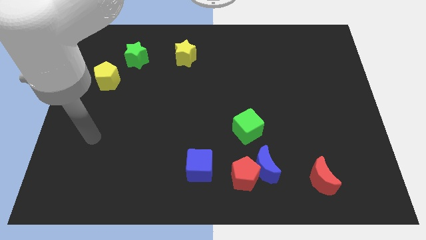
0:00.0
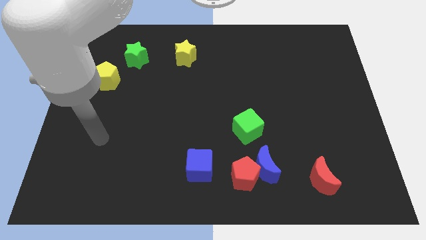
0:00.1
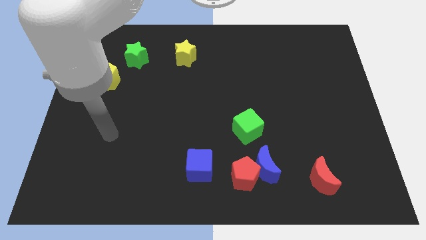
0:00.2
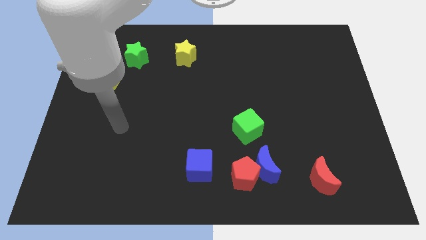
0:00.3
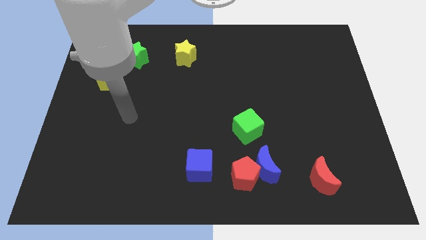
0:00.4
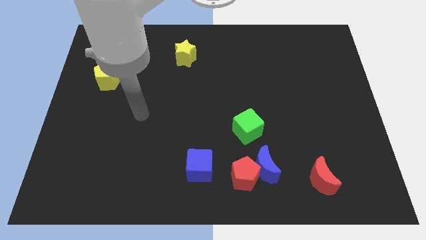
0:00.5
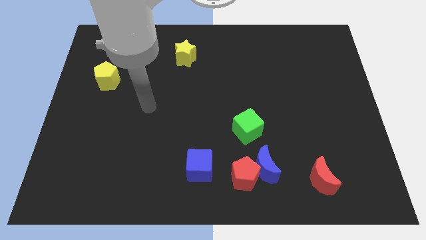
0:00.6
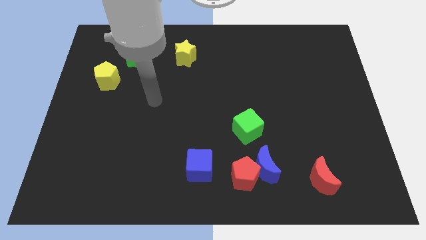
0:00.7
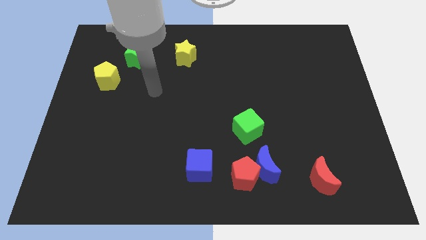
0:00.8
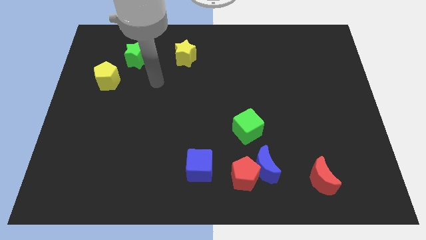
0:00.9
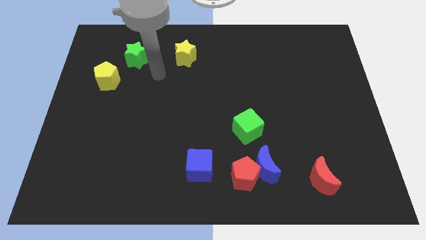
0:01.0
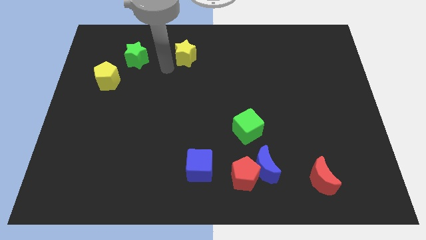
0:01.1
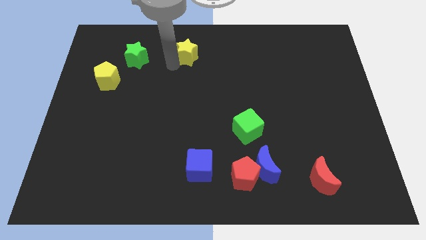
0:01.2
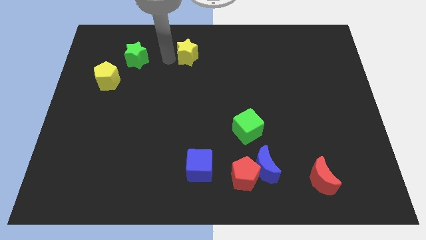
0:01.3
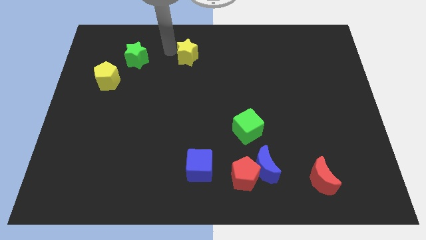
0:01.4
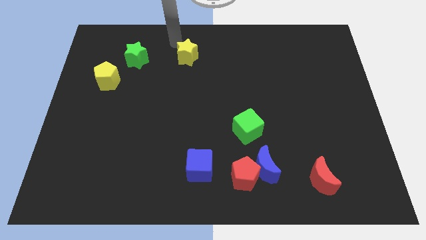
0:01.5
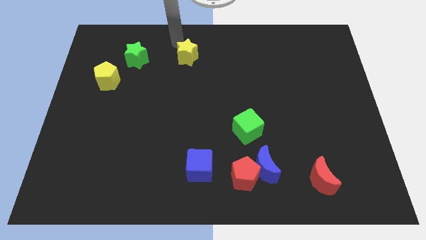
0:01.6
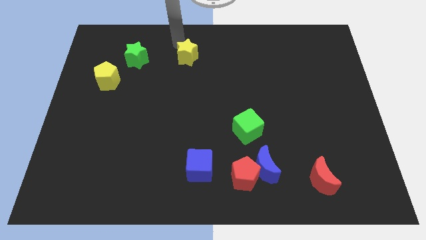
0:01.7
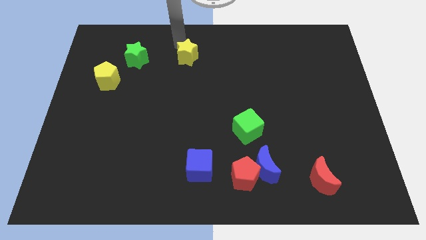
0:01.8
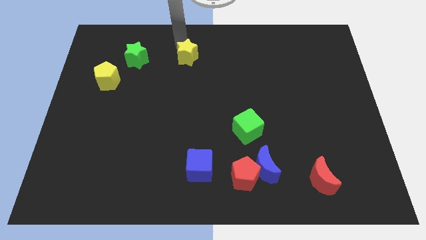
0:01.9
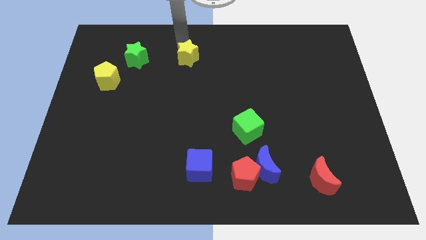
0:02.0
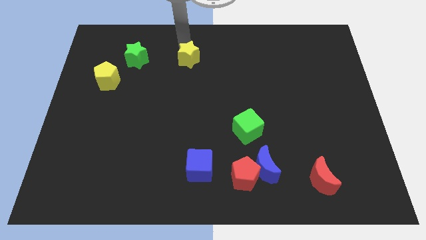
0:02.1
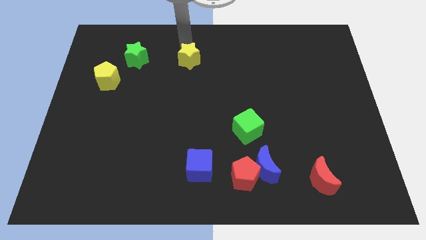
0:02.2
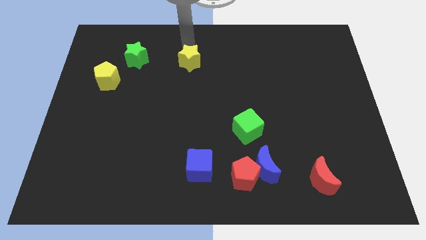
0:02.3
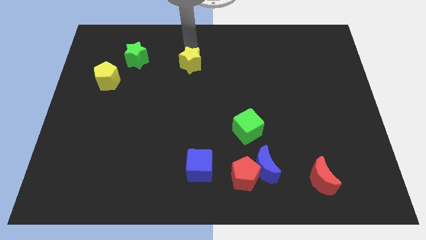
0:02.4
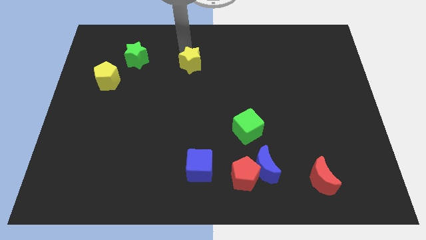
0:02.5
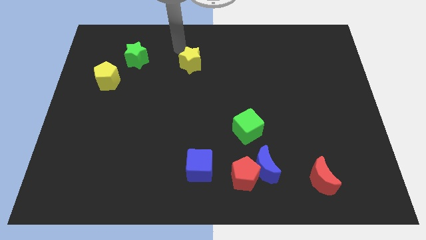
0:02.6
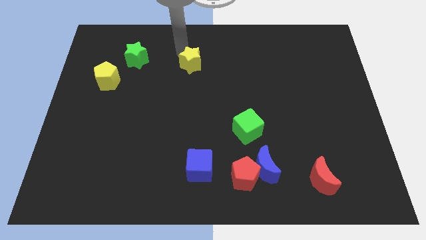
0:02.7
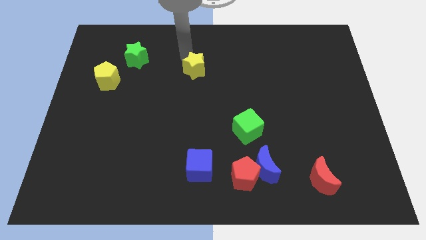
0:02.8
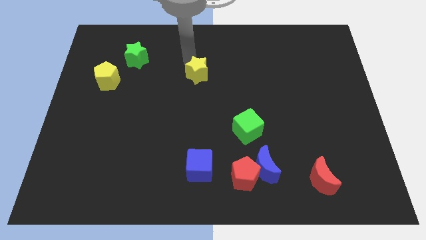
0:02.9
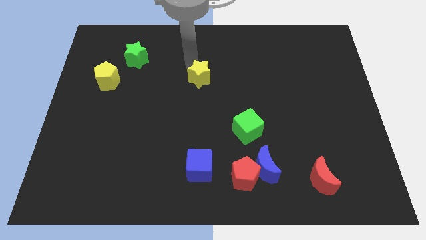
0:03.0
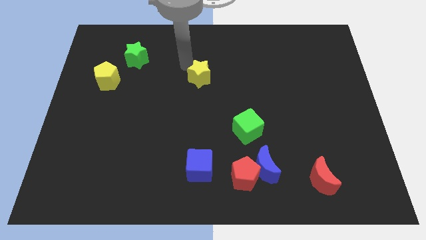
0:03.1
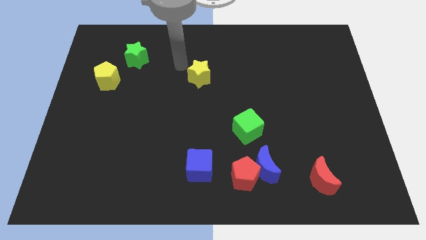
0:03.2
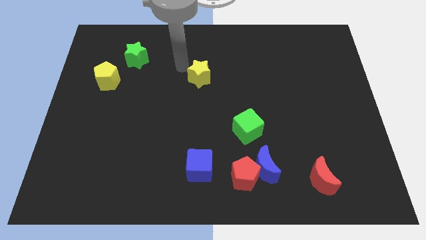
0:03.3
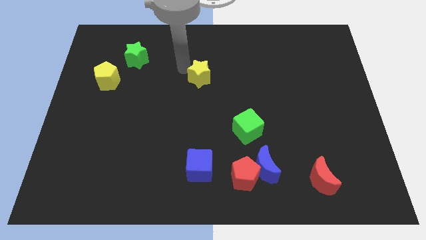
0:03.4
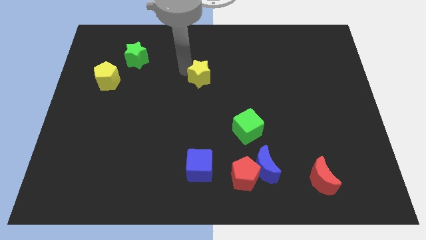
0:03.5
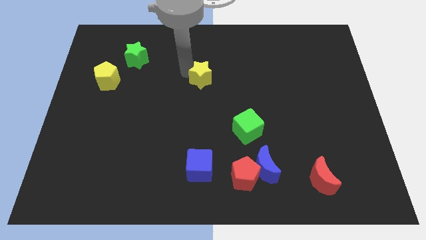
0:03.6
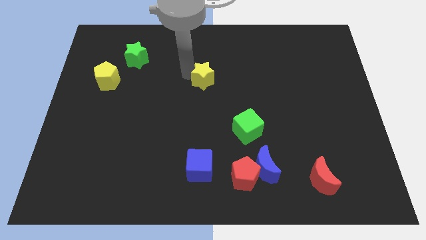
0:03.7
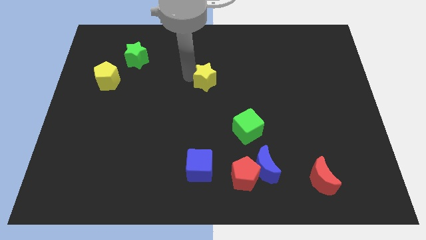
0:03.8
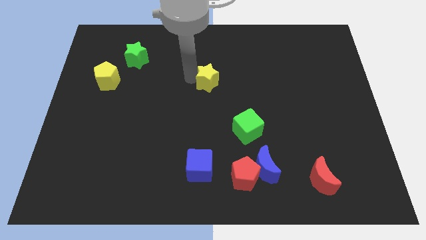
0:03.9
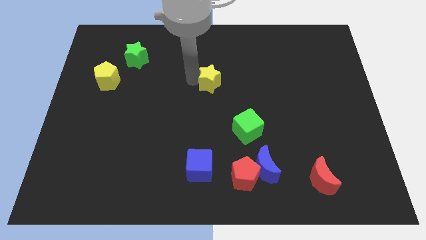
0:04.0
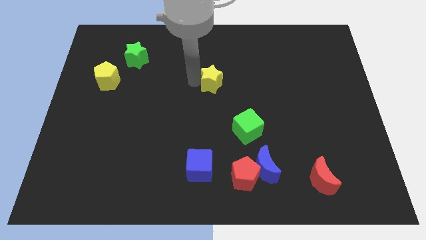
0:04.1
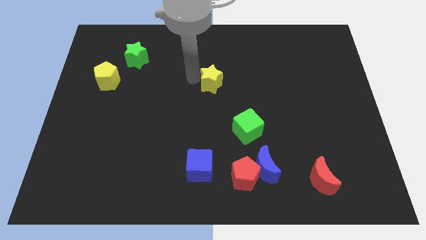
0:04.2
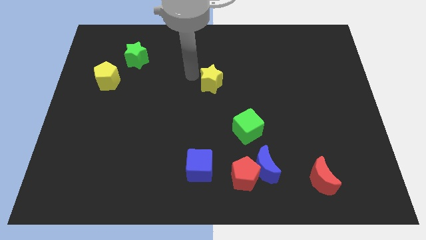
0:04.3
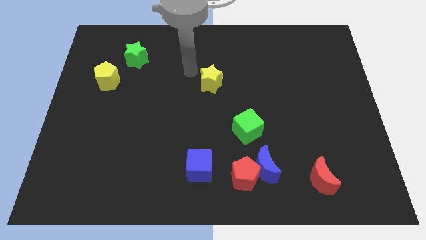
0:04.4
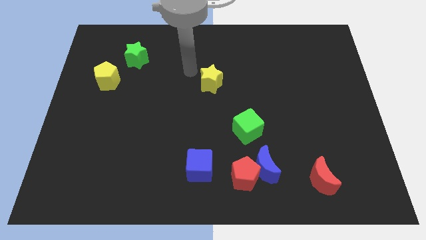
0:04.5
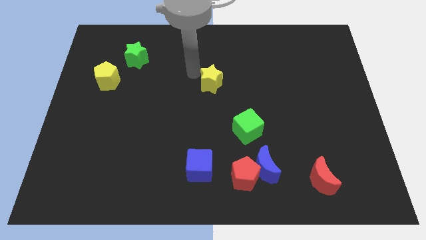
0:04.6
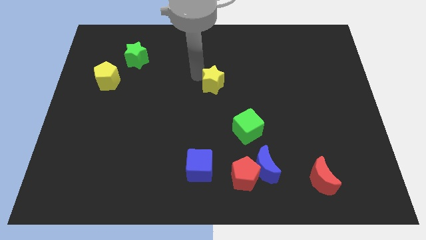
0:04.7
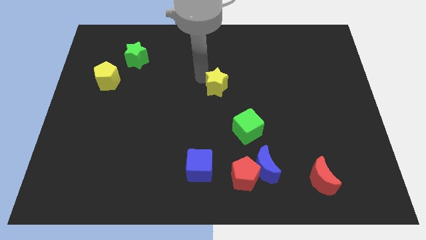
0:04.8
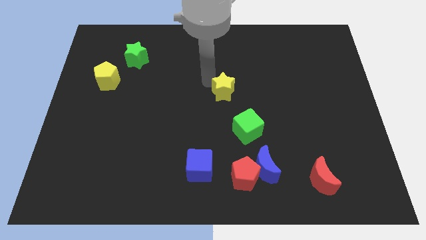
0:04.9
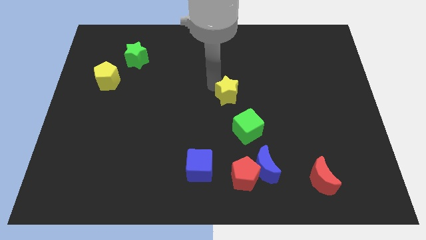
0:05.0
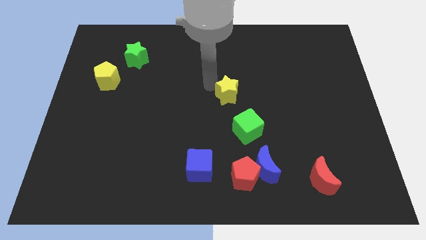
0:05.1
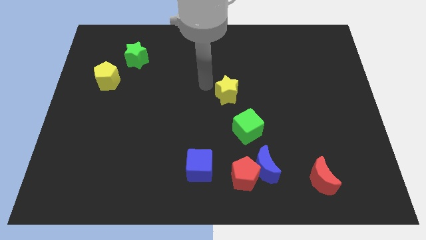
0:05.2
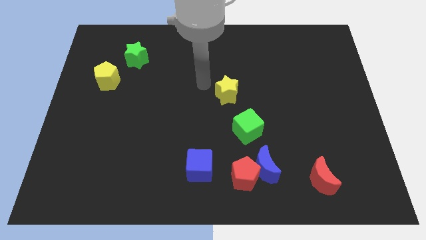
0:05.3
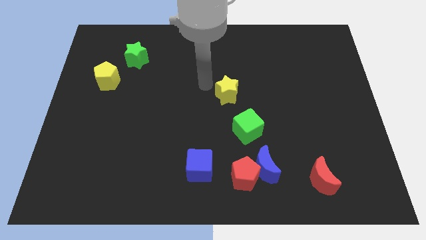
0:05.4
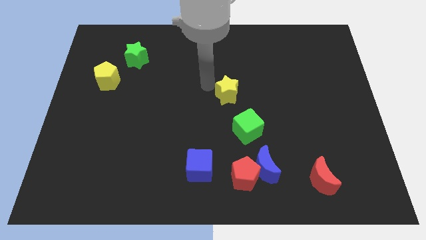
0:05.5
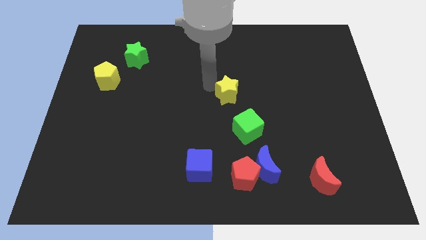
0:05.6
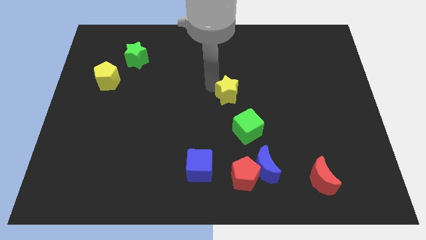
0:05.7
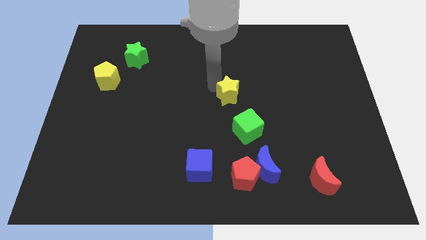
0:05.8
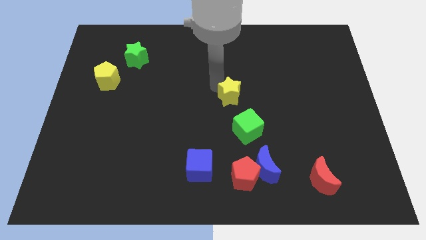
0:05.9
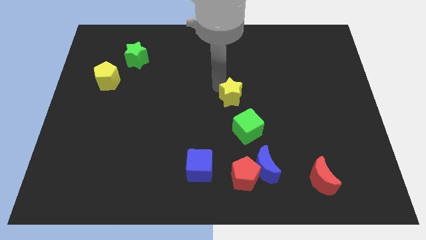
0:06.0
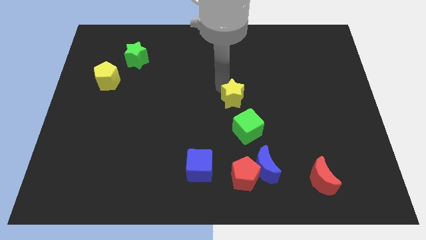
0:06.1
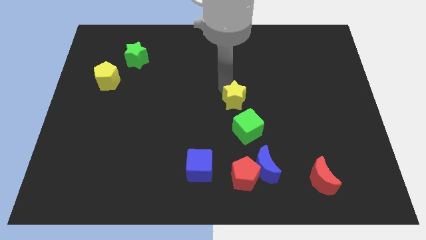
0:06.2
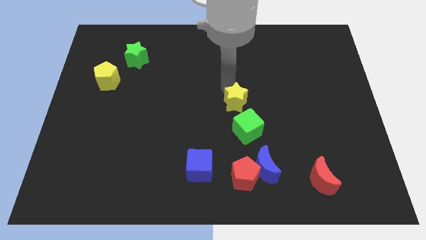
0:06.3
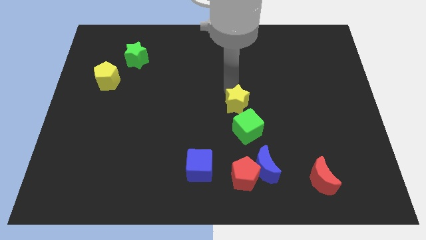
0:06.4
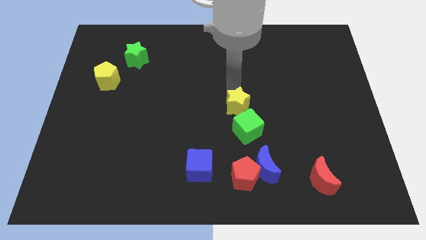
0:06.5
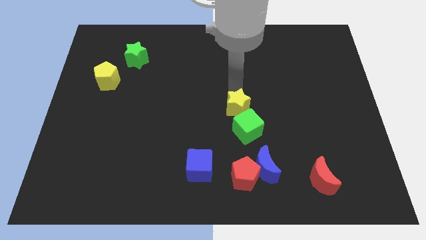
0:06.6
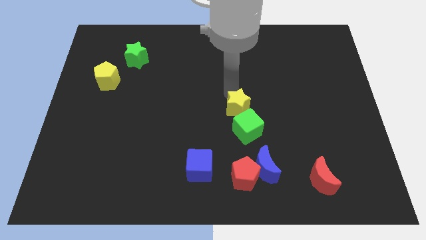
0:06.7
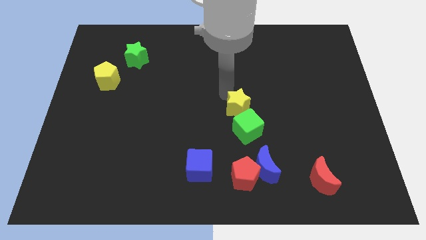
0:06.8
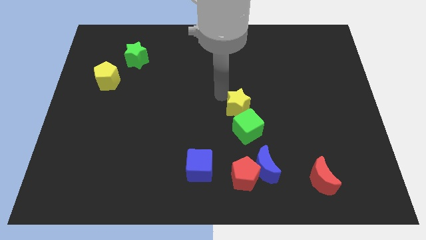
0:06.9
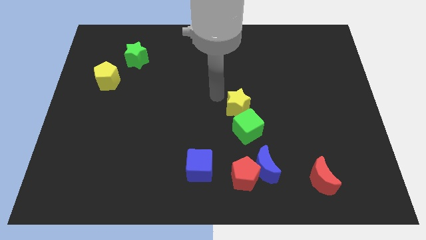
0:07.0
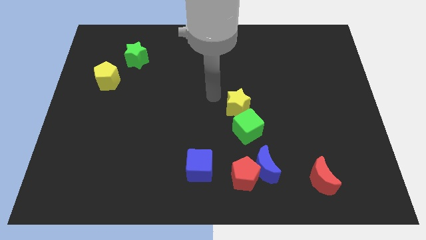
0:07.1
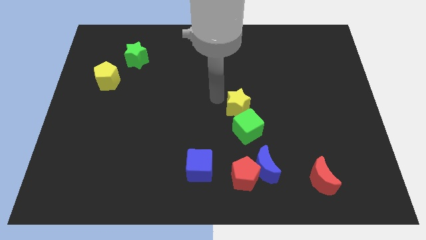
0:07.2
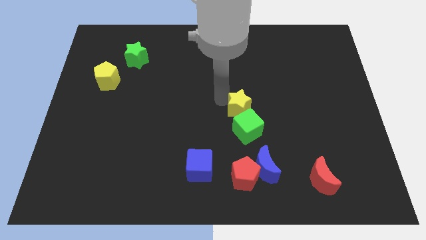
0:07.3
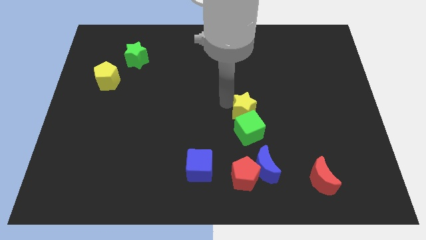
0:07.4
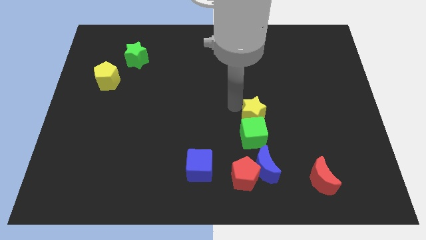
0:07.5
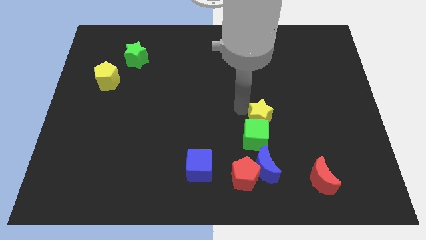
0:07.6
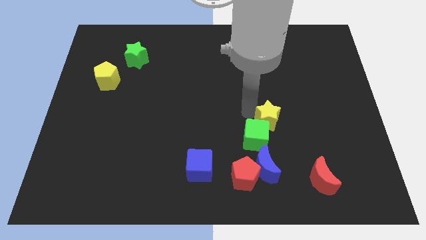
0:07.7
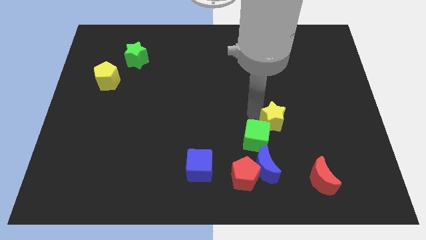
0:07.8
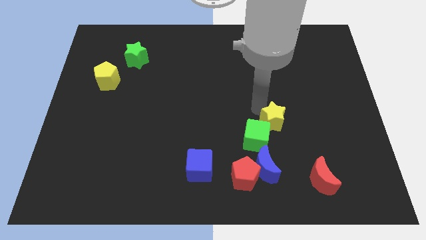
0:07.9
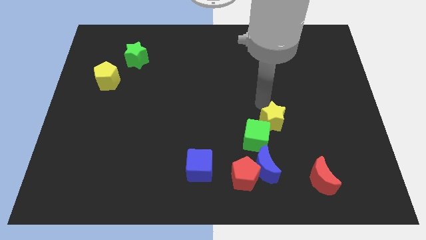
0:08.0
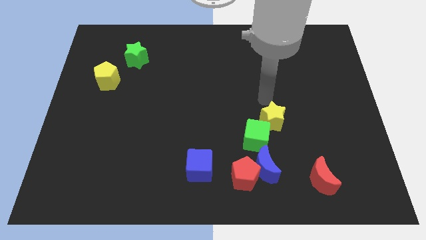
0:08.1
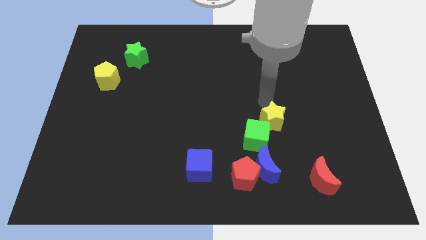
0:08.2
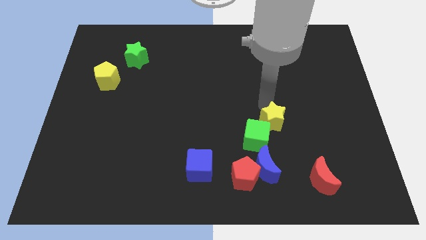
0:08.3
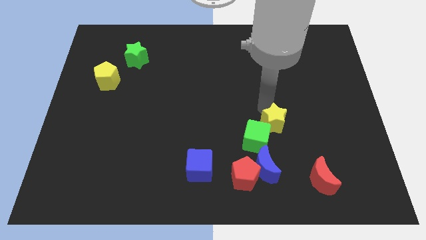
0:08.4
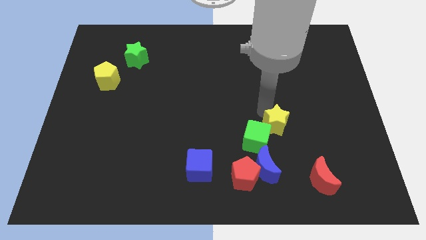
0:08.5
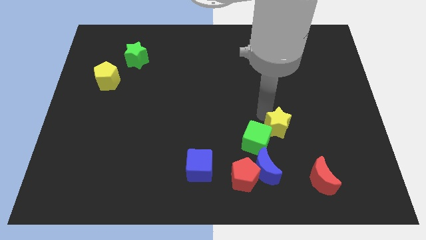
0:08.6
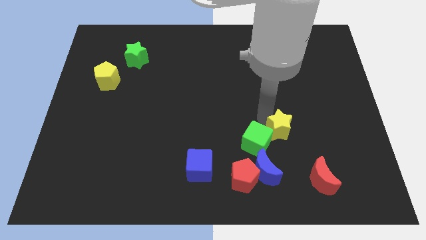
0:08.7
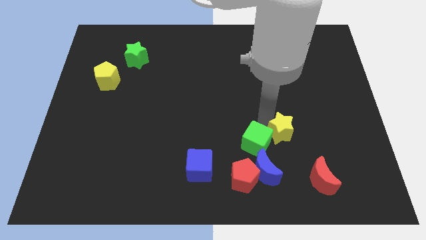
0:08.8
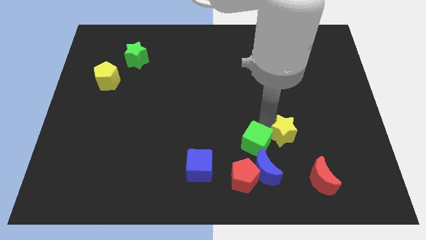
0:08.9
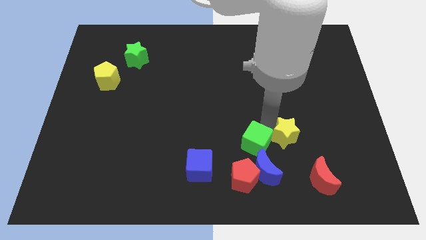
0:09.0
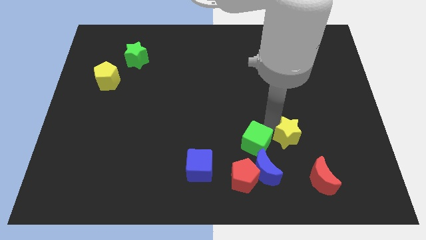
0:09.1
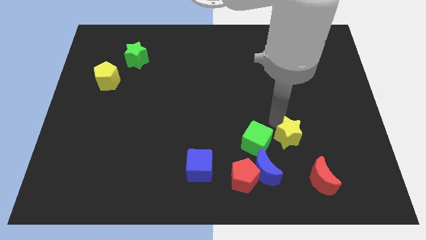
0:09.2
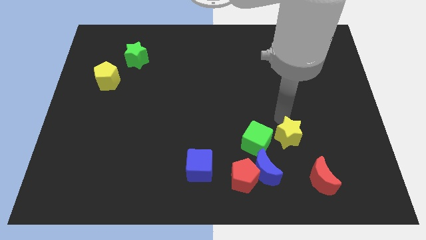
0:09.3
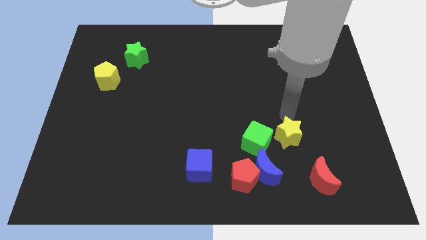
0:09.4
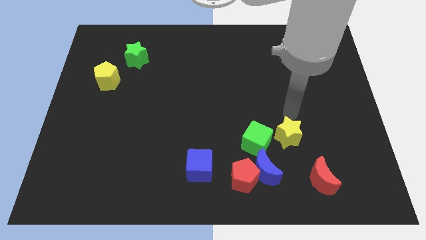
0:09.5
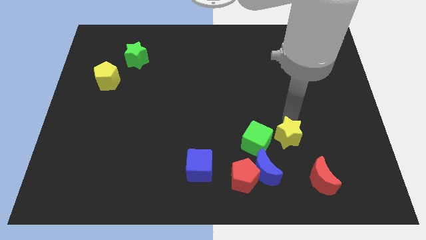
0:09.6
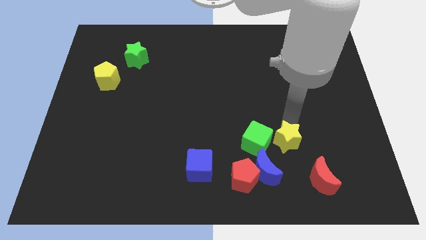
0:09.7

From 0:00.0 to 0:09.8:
slide the yellow star diagonally down and to the right of the green cube
